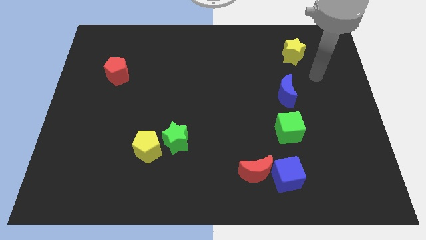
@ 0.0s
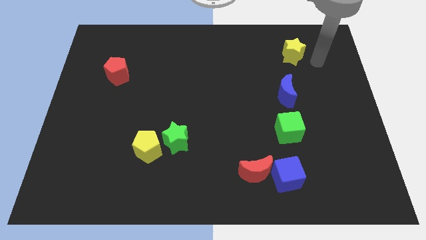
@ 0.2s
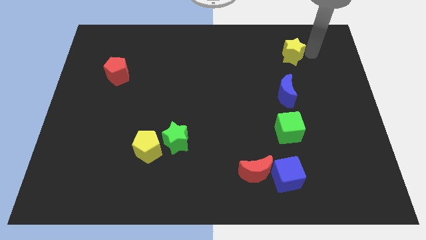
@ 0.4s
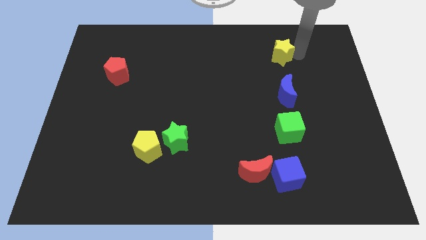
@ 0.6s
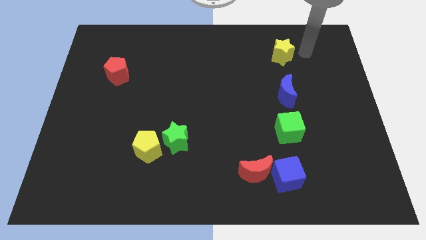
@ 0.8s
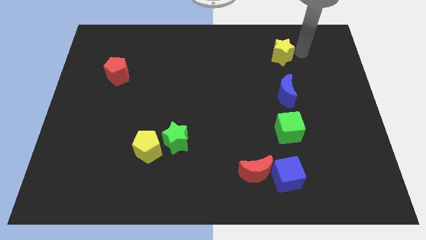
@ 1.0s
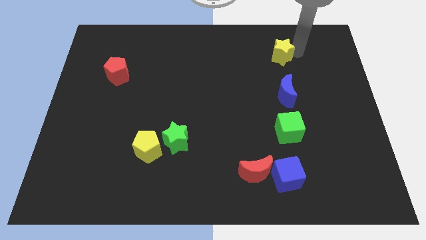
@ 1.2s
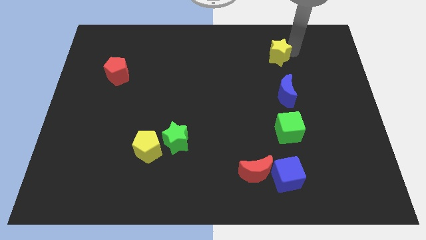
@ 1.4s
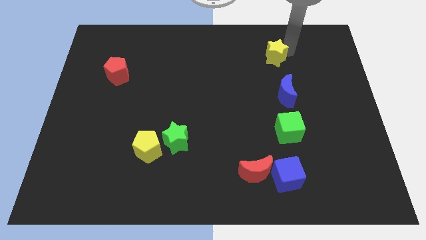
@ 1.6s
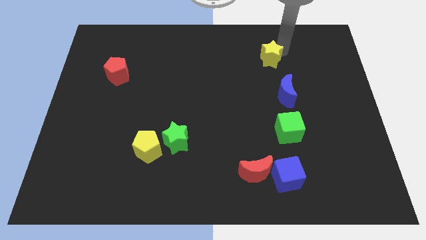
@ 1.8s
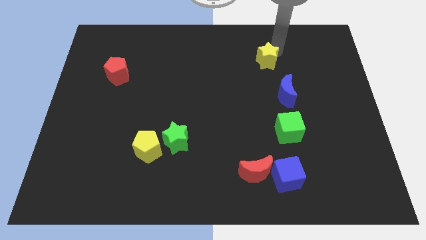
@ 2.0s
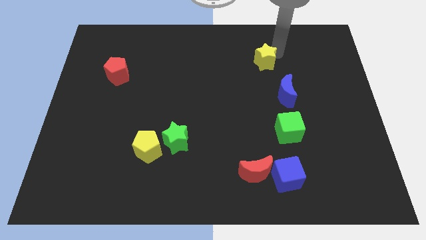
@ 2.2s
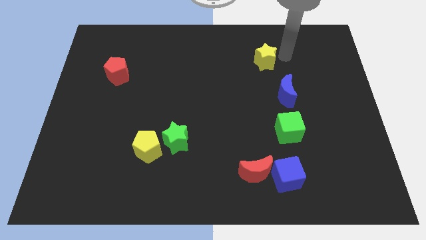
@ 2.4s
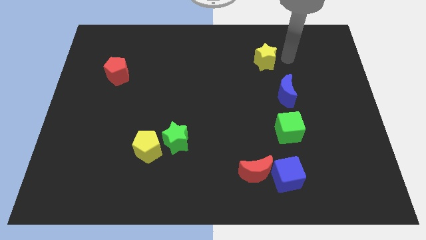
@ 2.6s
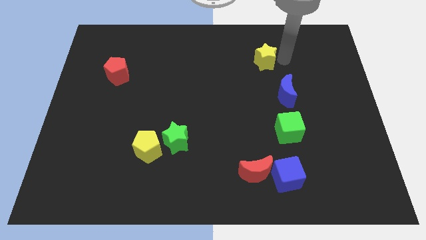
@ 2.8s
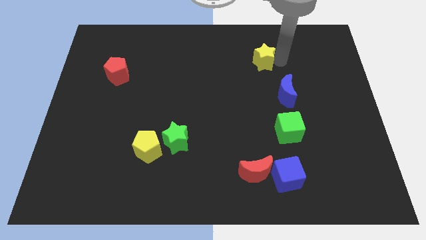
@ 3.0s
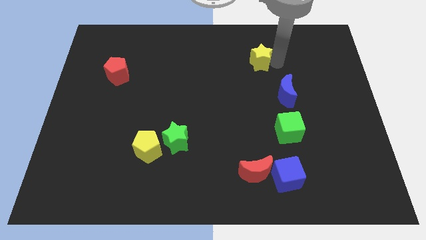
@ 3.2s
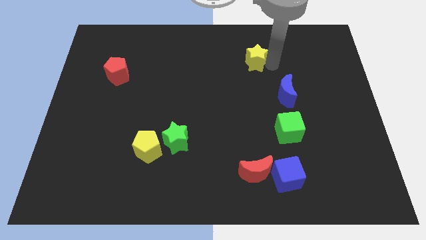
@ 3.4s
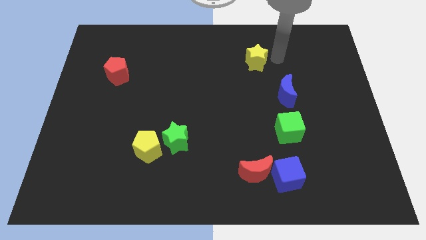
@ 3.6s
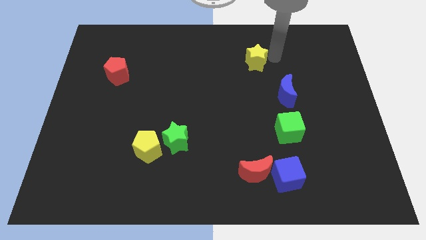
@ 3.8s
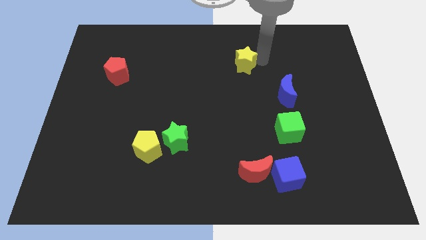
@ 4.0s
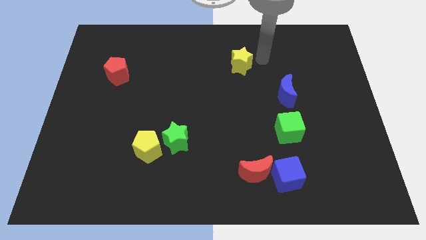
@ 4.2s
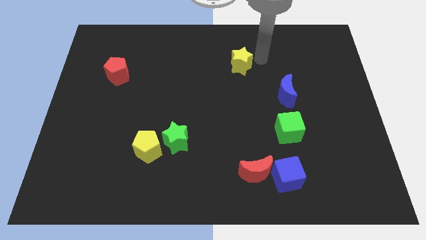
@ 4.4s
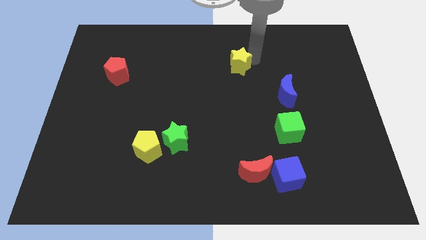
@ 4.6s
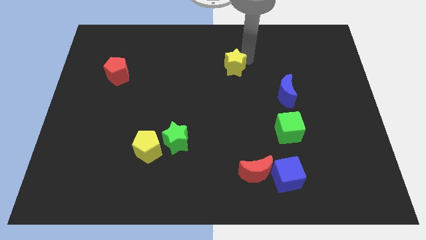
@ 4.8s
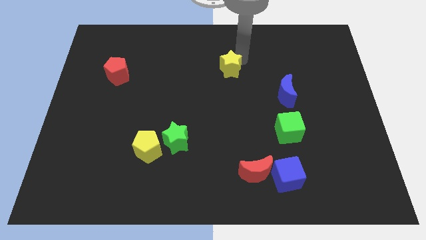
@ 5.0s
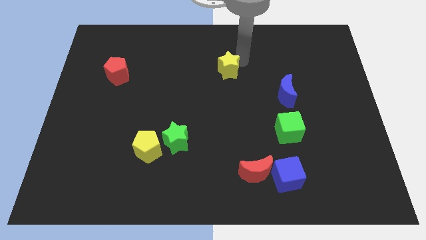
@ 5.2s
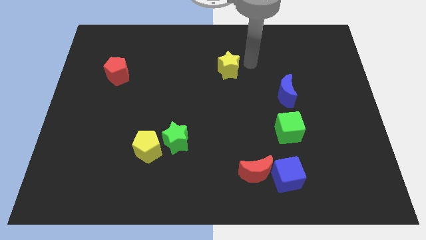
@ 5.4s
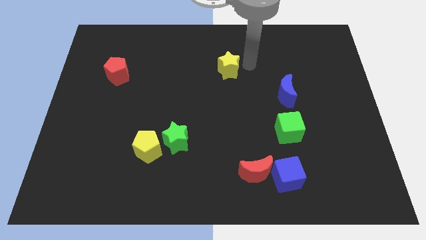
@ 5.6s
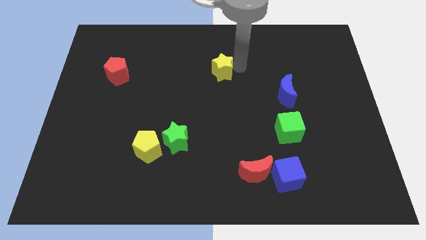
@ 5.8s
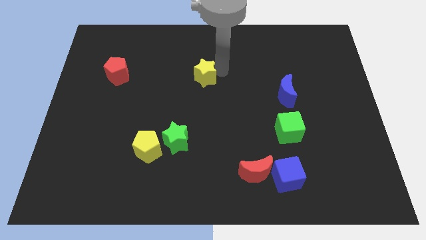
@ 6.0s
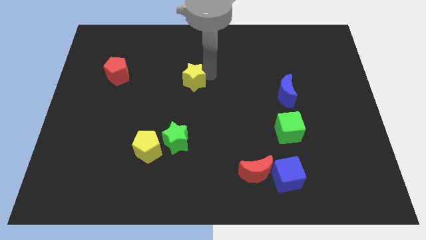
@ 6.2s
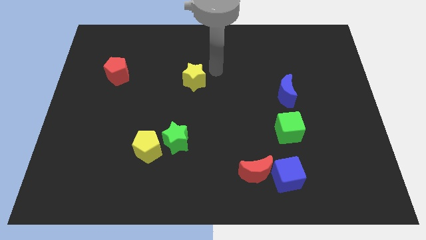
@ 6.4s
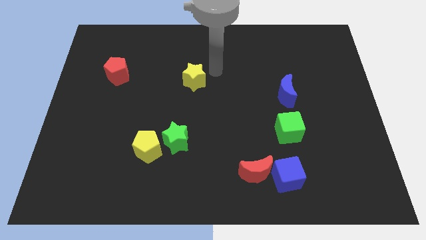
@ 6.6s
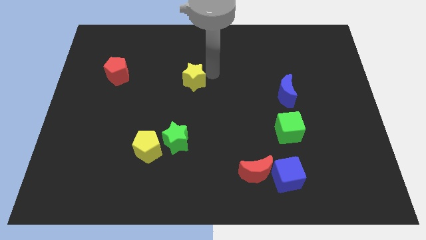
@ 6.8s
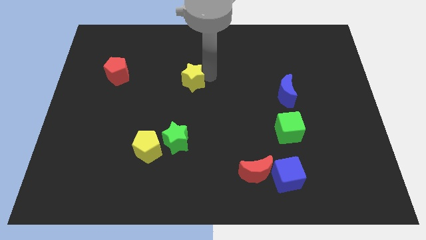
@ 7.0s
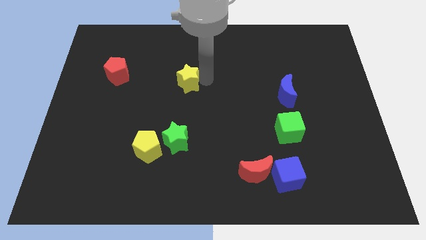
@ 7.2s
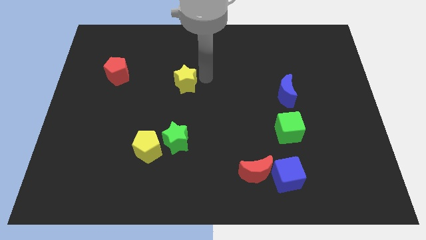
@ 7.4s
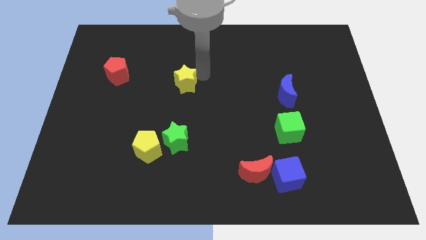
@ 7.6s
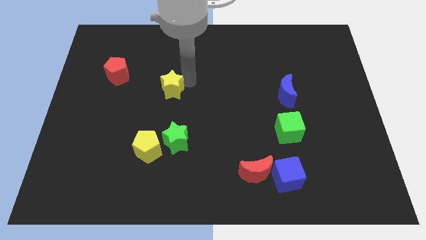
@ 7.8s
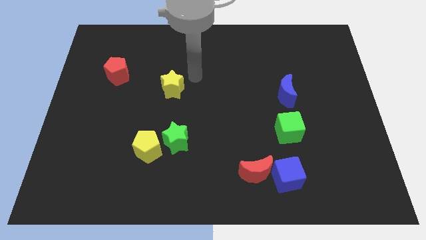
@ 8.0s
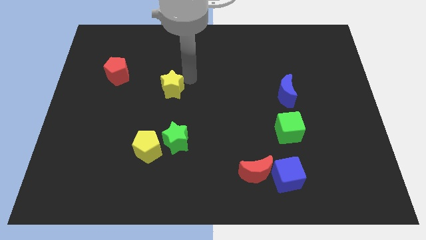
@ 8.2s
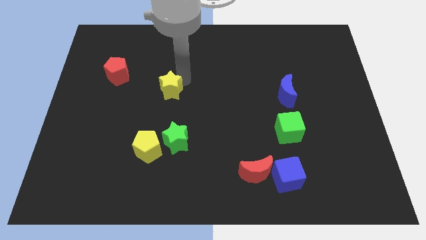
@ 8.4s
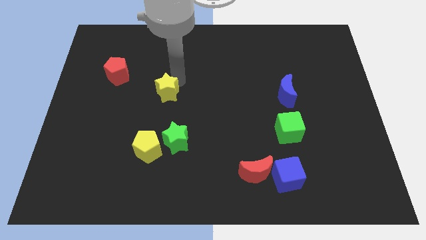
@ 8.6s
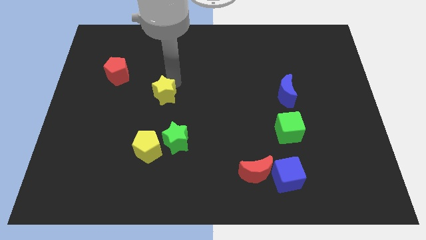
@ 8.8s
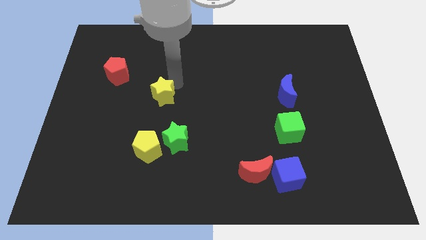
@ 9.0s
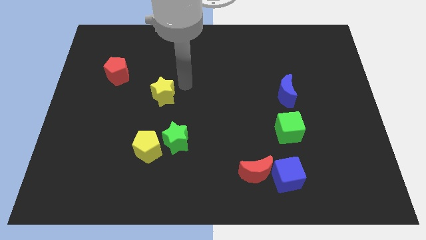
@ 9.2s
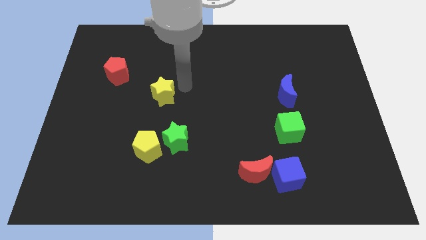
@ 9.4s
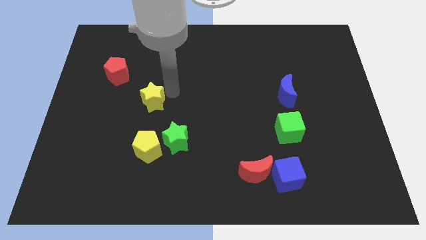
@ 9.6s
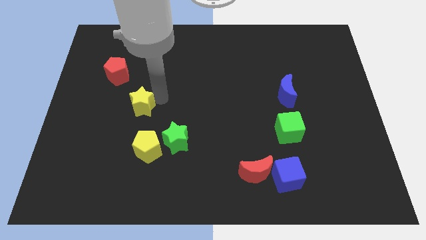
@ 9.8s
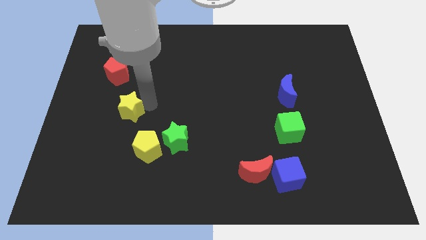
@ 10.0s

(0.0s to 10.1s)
slide the yellow star to the bottom of the red pentagon

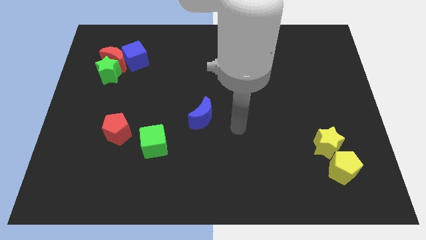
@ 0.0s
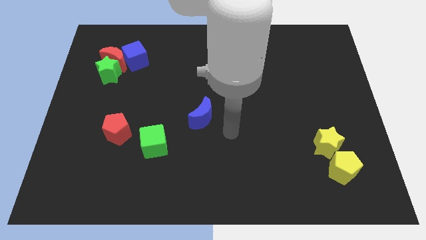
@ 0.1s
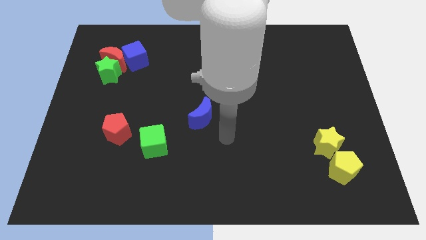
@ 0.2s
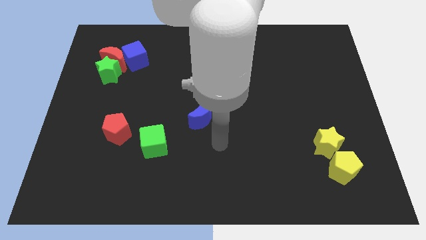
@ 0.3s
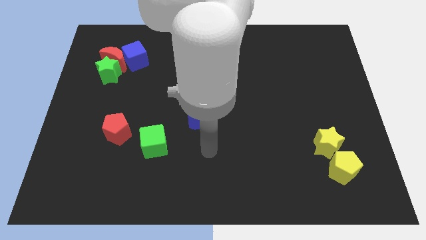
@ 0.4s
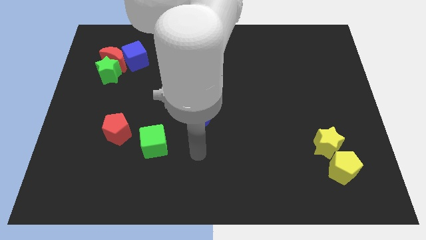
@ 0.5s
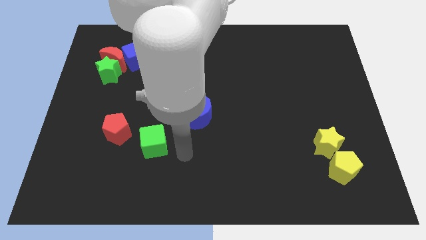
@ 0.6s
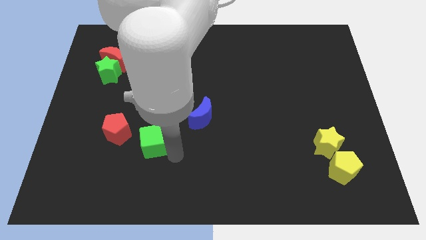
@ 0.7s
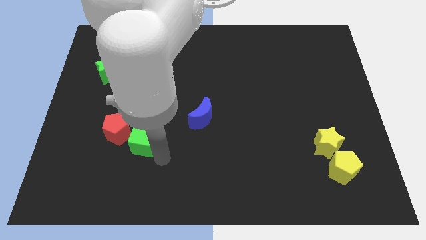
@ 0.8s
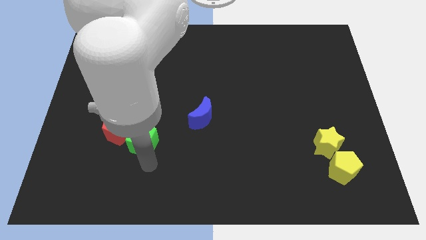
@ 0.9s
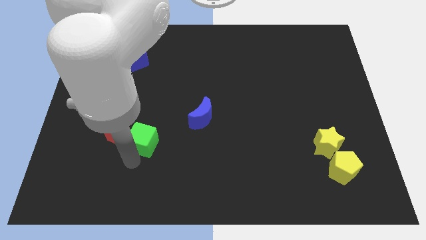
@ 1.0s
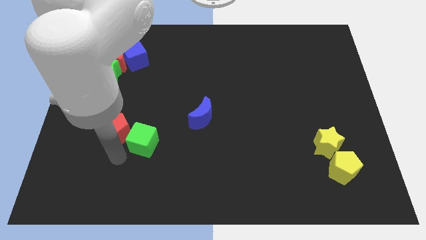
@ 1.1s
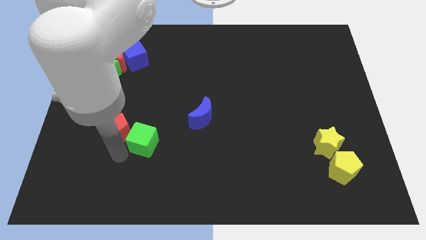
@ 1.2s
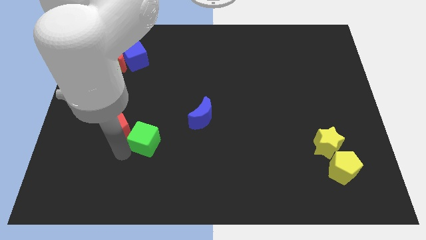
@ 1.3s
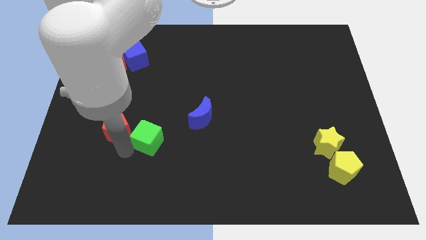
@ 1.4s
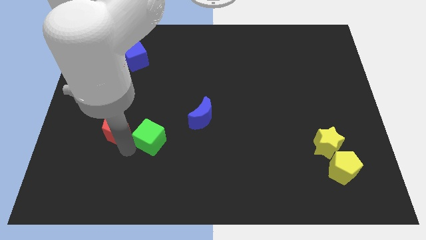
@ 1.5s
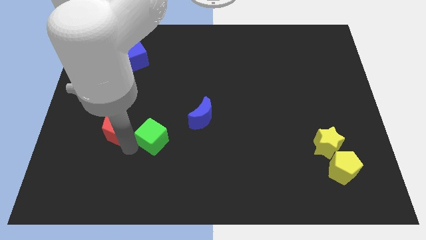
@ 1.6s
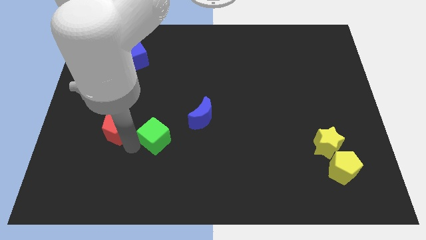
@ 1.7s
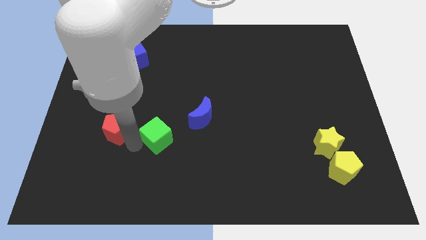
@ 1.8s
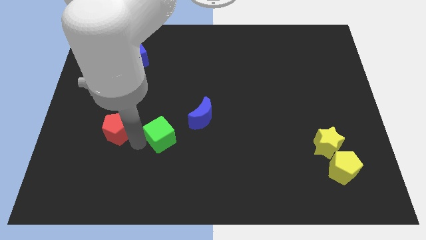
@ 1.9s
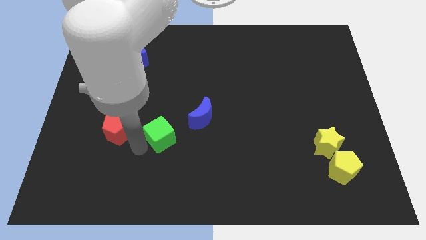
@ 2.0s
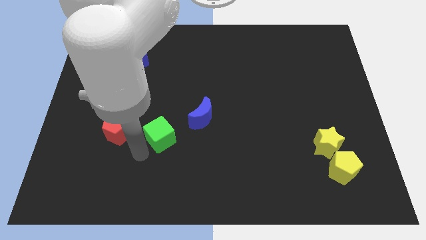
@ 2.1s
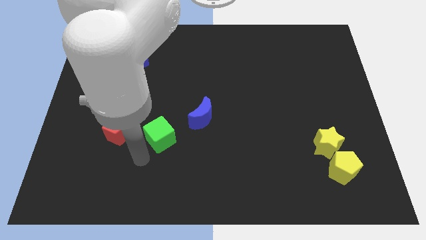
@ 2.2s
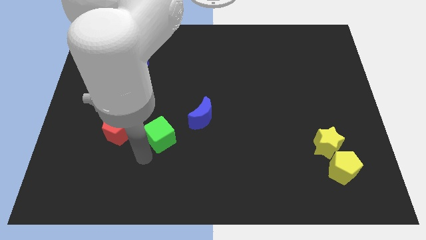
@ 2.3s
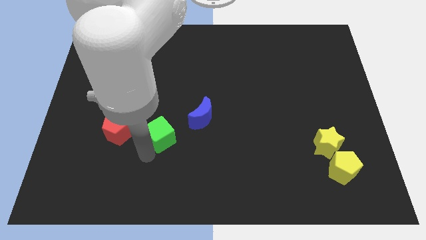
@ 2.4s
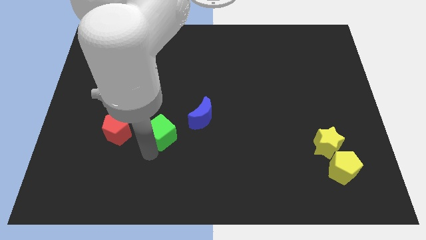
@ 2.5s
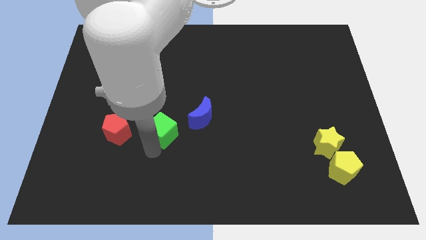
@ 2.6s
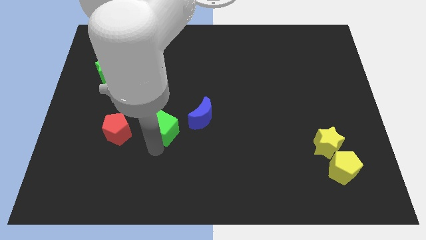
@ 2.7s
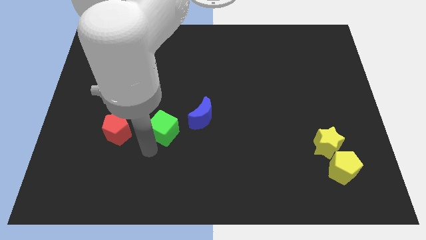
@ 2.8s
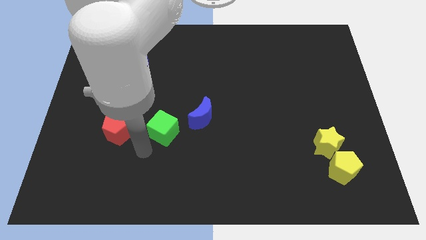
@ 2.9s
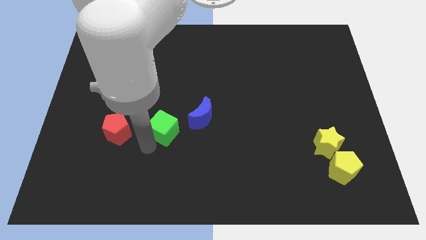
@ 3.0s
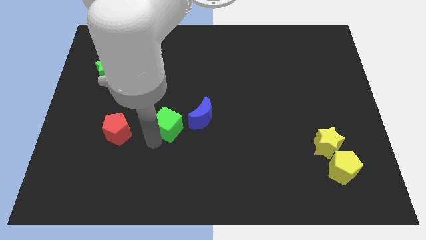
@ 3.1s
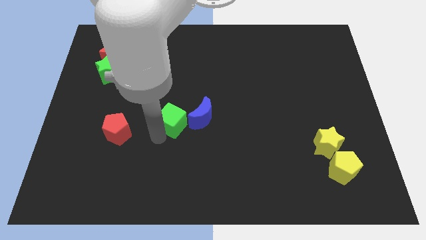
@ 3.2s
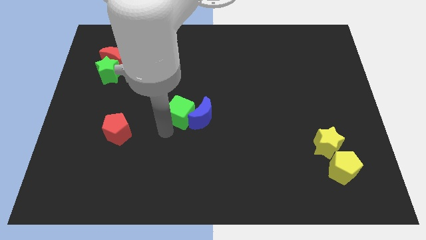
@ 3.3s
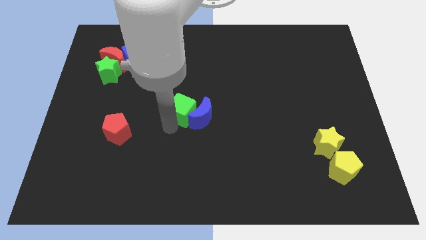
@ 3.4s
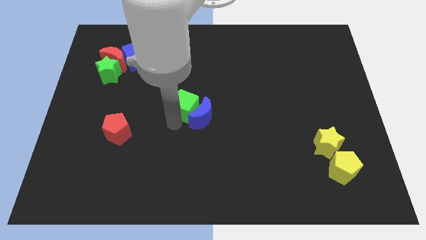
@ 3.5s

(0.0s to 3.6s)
put the green cube to the top of the blue moon
